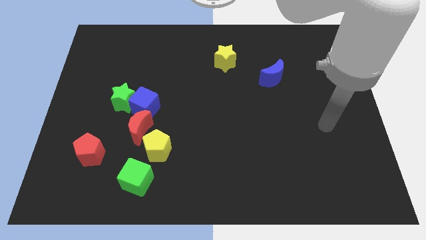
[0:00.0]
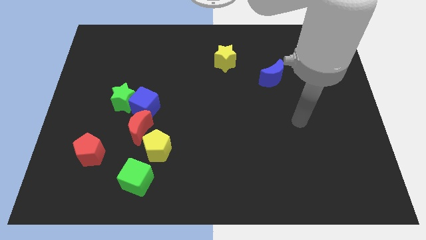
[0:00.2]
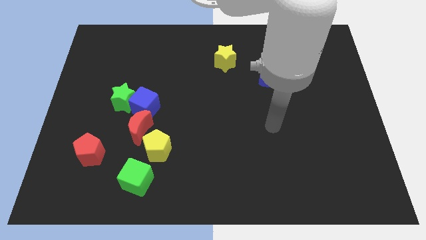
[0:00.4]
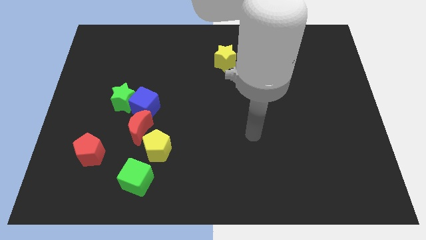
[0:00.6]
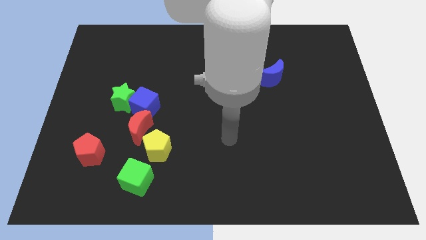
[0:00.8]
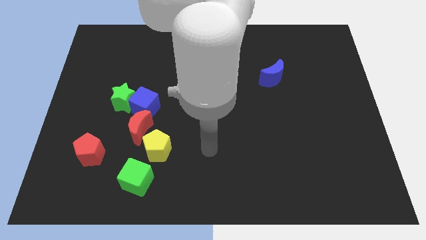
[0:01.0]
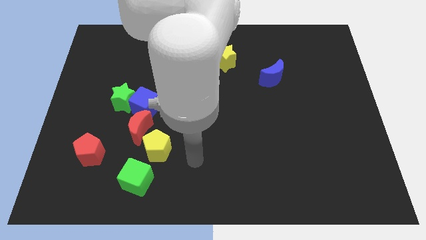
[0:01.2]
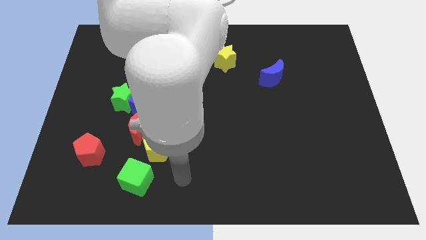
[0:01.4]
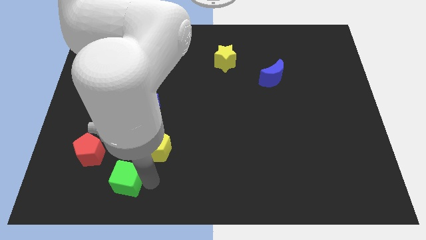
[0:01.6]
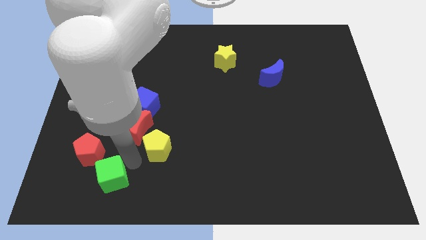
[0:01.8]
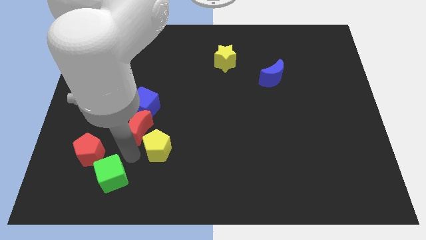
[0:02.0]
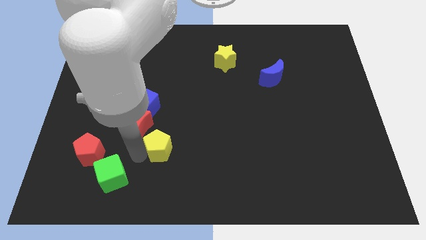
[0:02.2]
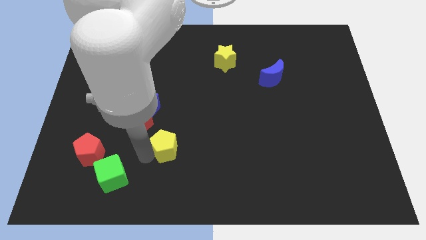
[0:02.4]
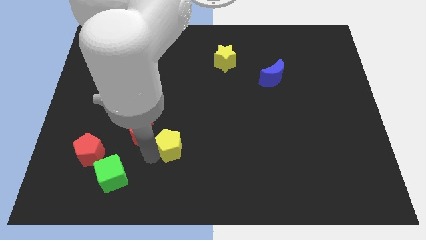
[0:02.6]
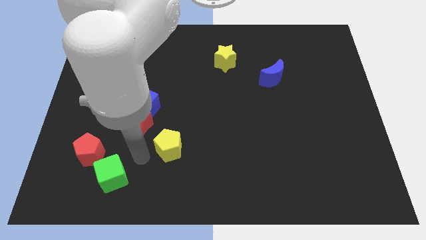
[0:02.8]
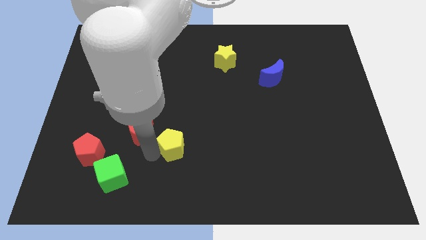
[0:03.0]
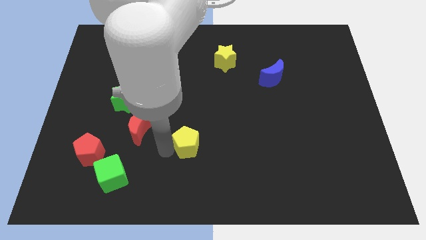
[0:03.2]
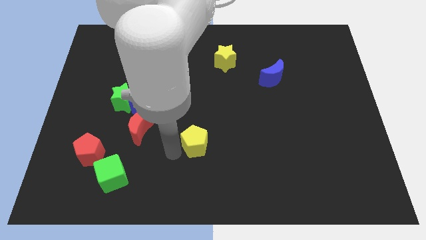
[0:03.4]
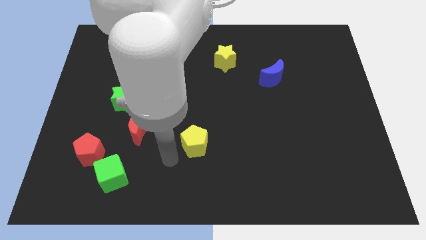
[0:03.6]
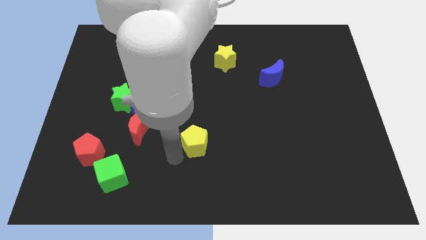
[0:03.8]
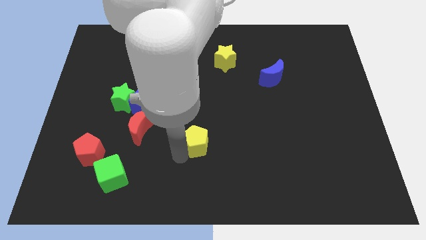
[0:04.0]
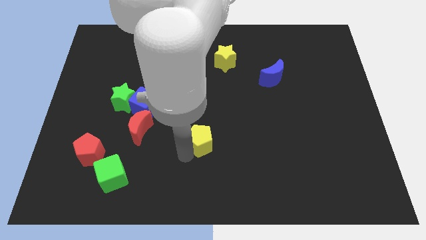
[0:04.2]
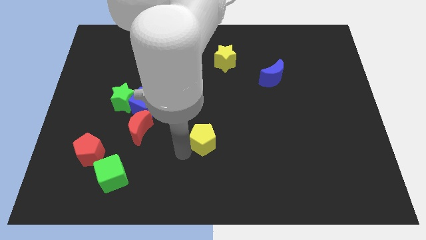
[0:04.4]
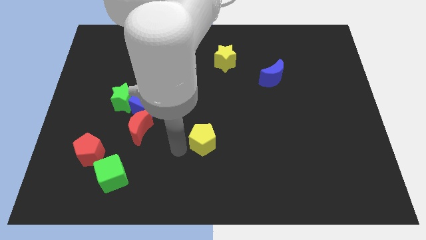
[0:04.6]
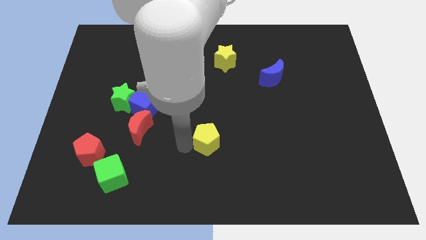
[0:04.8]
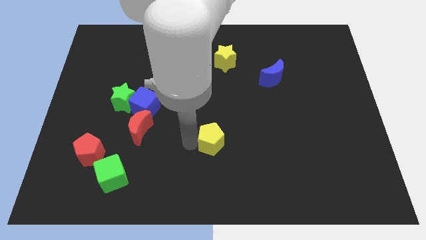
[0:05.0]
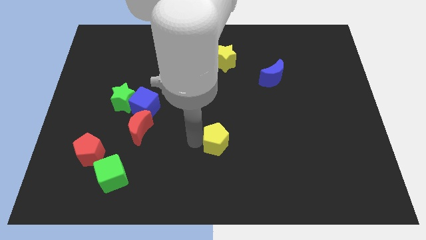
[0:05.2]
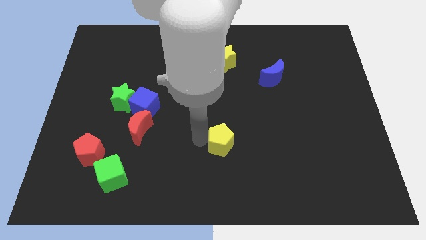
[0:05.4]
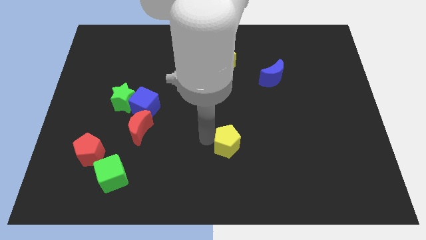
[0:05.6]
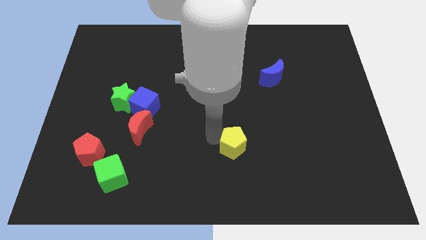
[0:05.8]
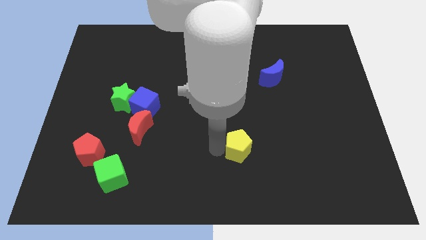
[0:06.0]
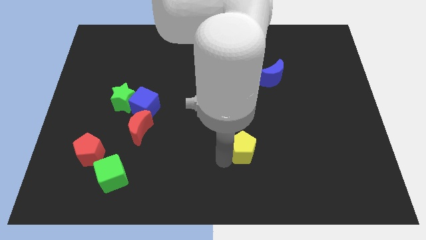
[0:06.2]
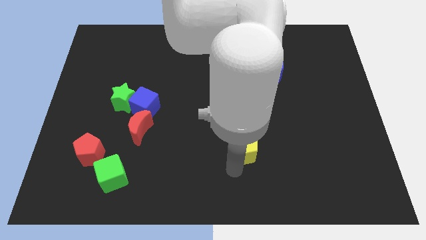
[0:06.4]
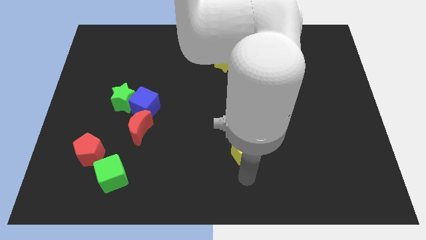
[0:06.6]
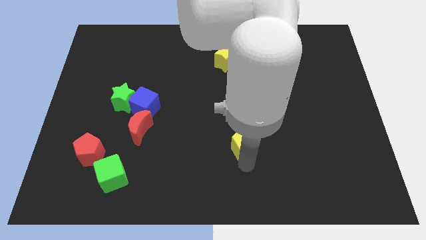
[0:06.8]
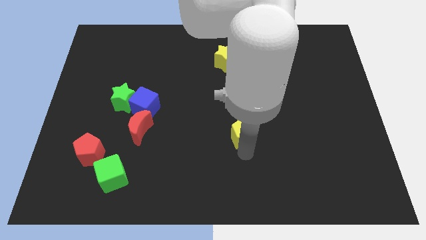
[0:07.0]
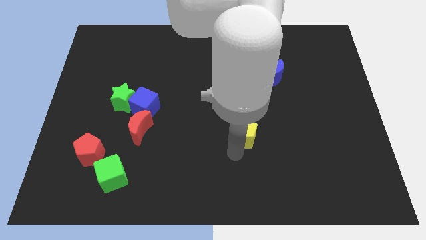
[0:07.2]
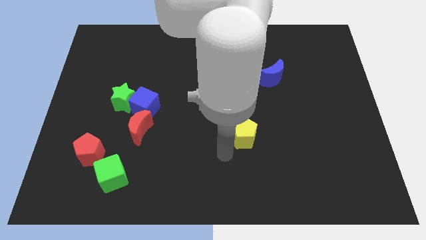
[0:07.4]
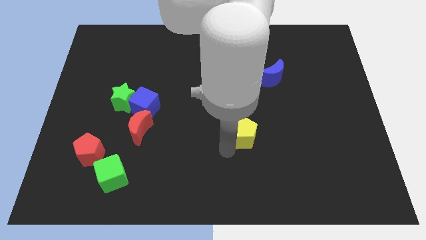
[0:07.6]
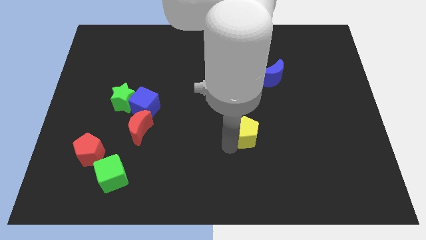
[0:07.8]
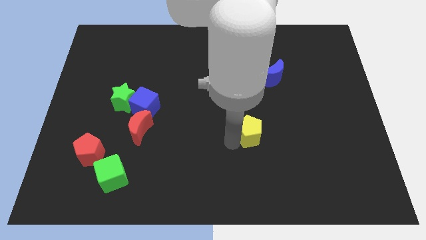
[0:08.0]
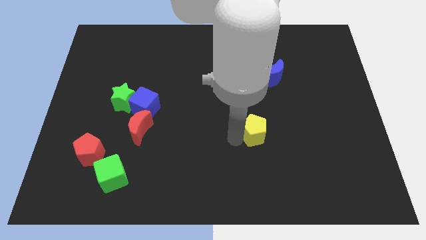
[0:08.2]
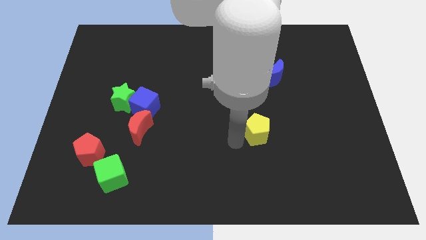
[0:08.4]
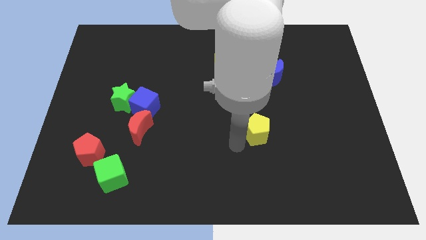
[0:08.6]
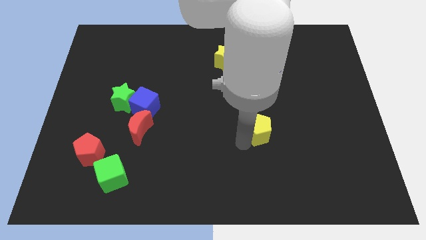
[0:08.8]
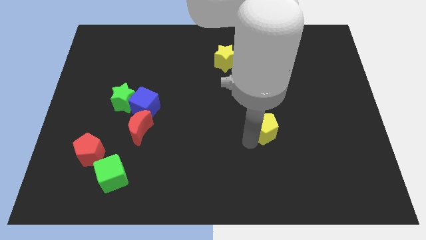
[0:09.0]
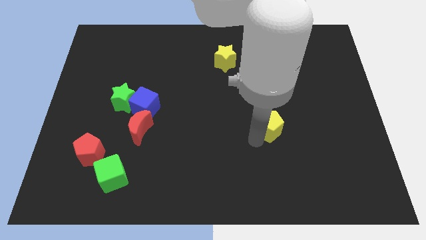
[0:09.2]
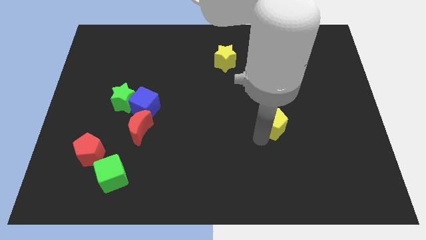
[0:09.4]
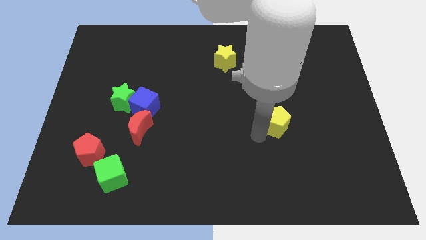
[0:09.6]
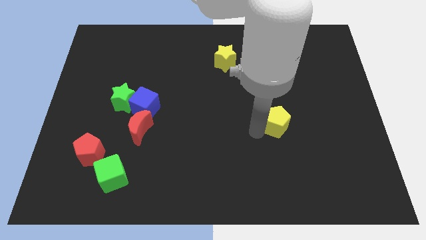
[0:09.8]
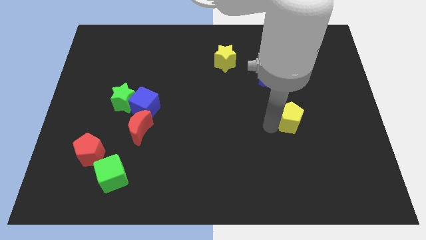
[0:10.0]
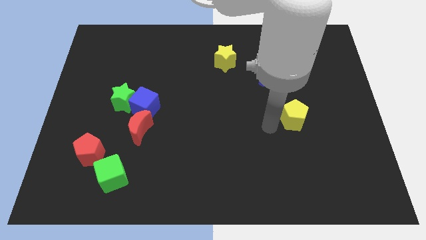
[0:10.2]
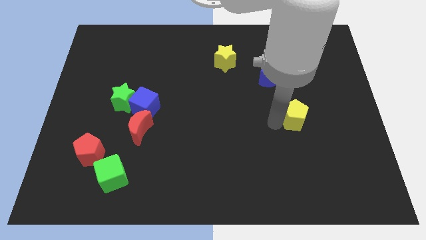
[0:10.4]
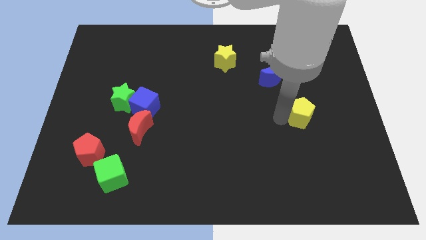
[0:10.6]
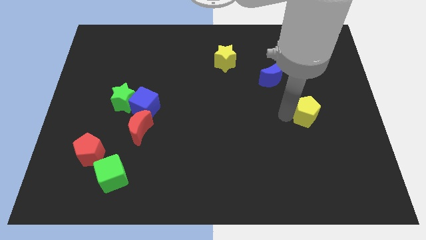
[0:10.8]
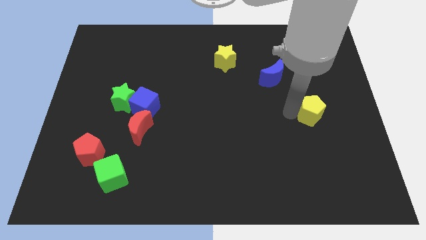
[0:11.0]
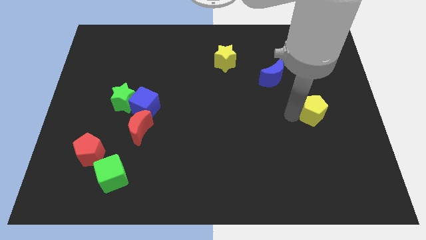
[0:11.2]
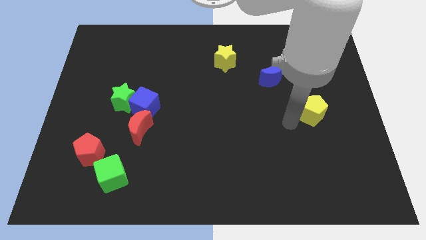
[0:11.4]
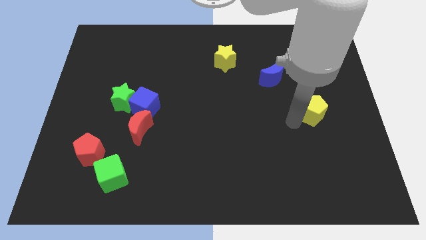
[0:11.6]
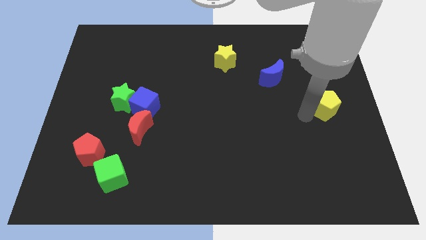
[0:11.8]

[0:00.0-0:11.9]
slide the yellow pentagon to the right side
